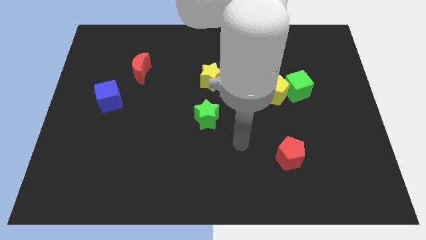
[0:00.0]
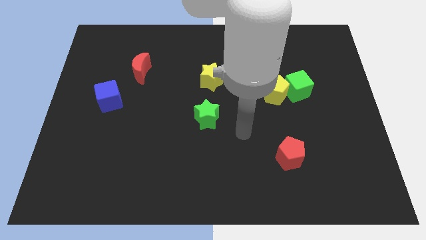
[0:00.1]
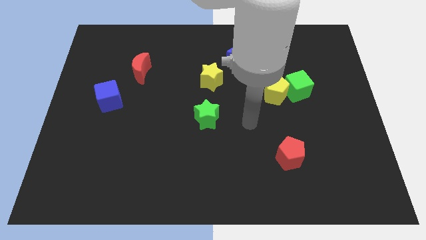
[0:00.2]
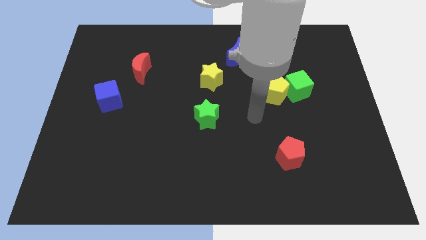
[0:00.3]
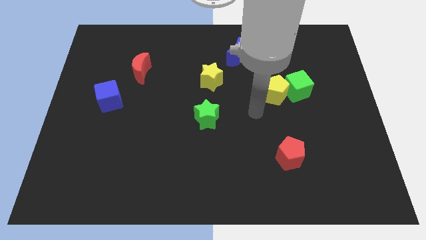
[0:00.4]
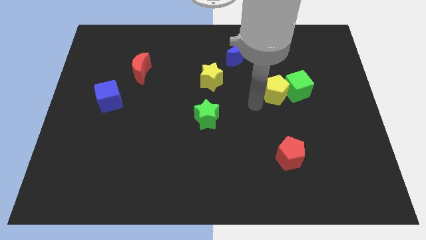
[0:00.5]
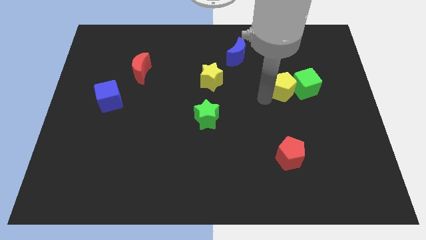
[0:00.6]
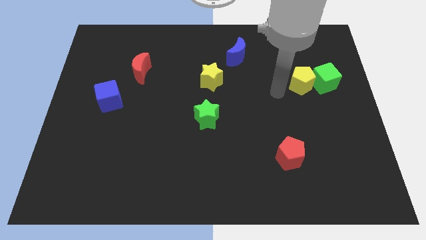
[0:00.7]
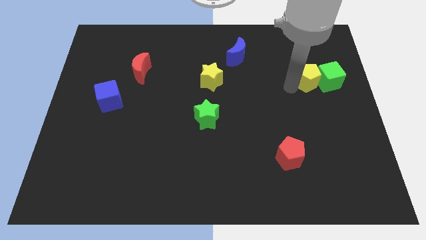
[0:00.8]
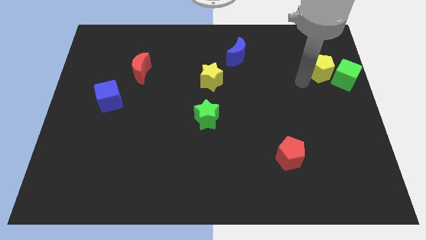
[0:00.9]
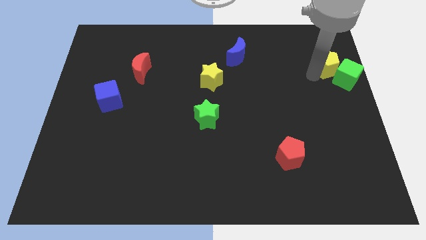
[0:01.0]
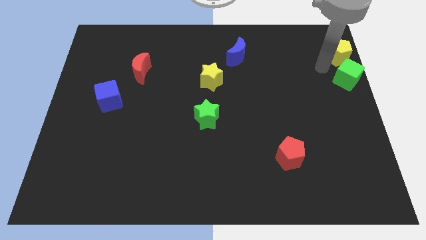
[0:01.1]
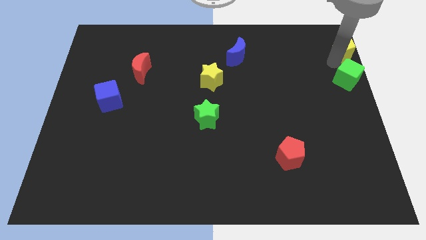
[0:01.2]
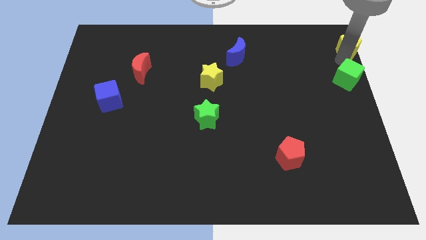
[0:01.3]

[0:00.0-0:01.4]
move the green cube away from the yellow pentagon

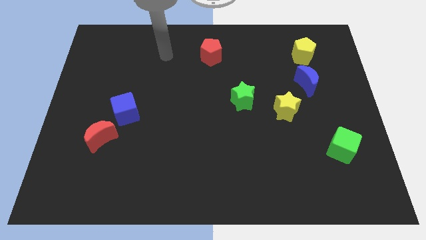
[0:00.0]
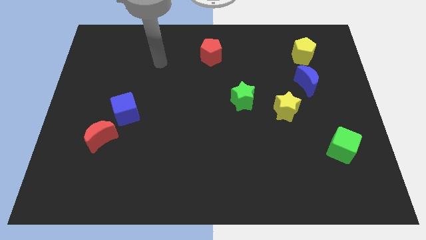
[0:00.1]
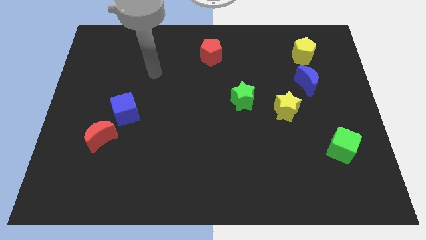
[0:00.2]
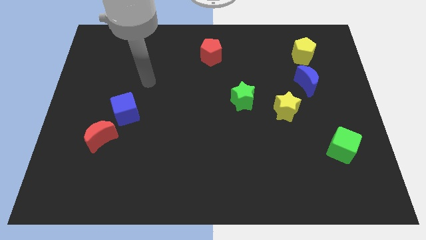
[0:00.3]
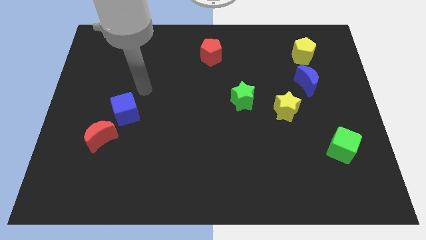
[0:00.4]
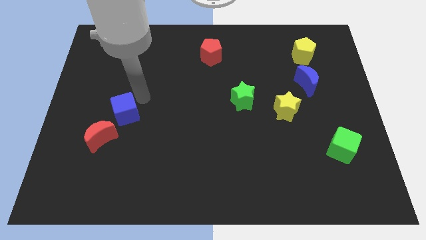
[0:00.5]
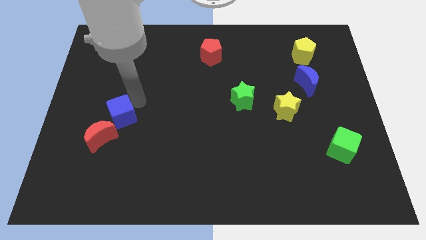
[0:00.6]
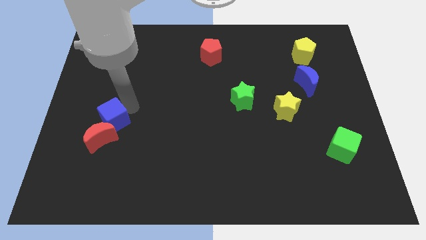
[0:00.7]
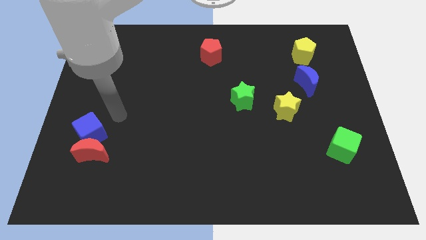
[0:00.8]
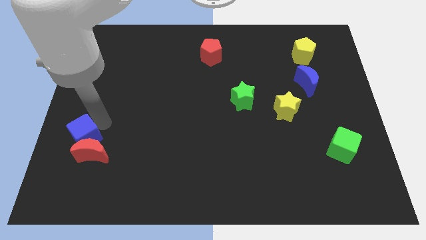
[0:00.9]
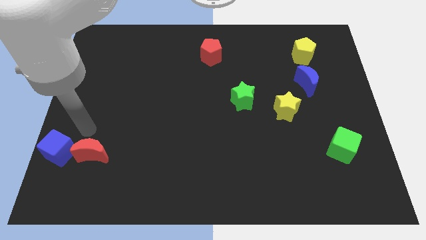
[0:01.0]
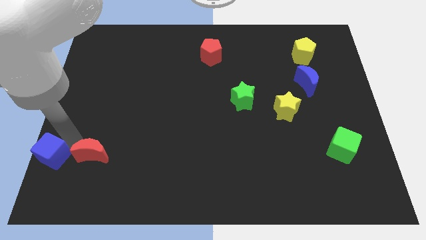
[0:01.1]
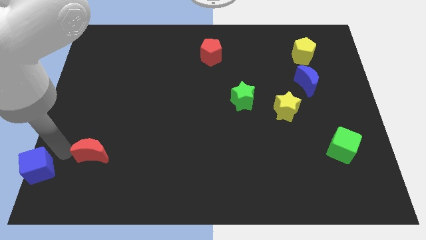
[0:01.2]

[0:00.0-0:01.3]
pull the red moon apart from the blue cube

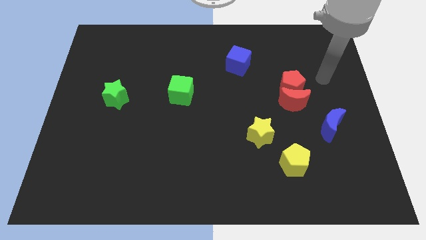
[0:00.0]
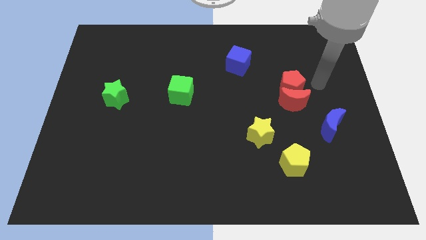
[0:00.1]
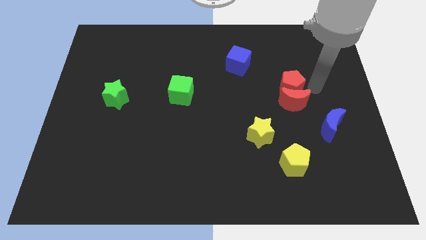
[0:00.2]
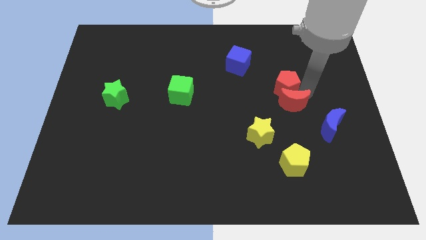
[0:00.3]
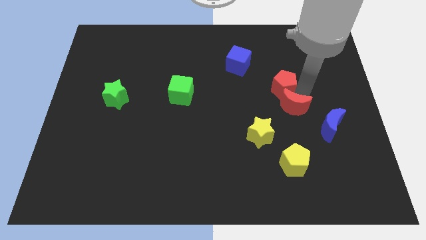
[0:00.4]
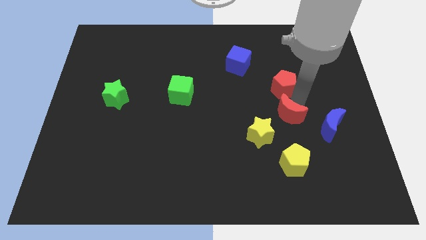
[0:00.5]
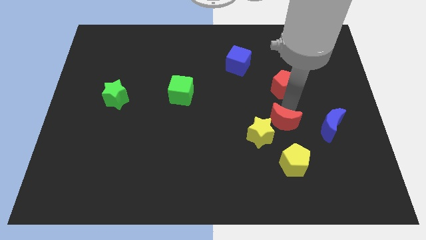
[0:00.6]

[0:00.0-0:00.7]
separate the red pentagon from the red moon

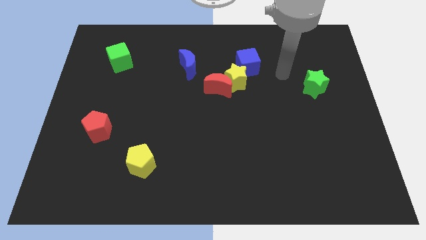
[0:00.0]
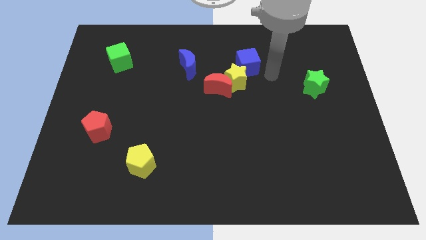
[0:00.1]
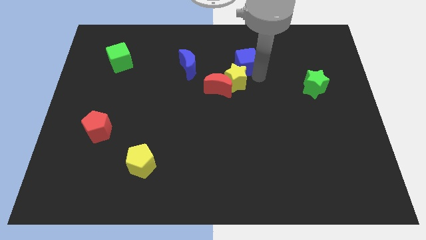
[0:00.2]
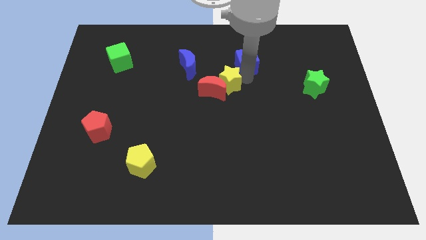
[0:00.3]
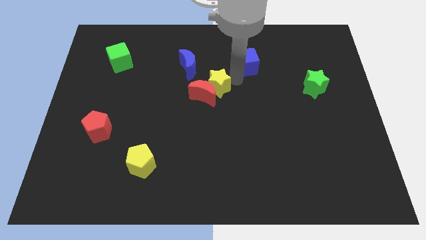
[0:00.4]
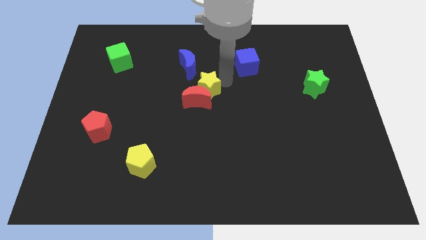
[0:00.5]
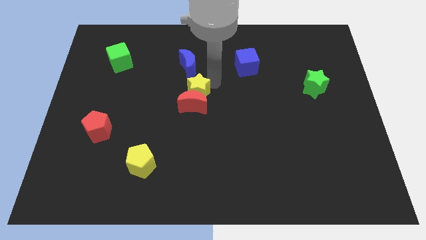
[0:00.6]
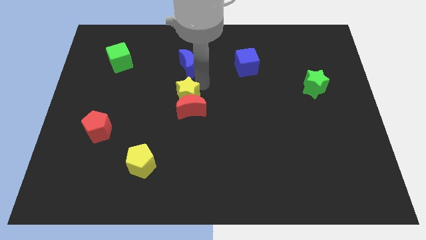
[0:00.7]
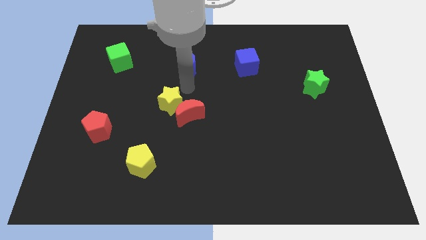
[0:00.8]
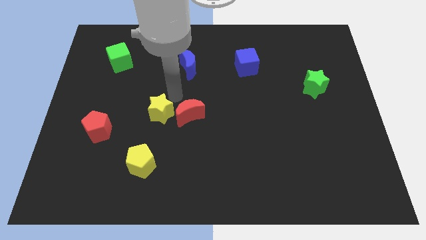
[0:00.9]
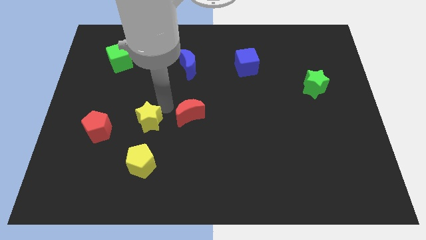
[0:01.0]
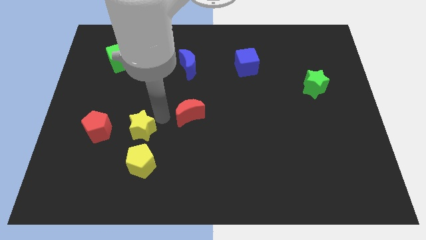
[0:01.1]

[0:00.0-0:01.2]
move the red moon away from the yellow star

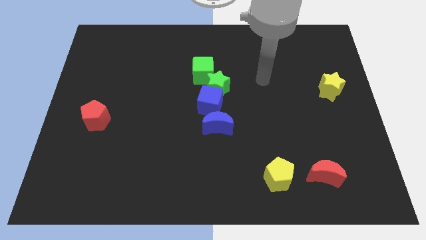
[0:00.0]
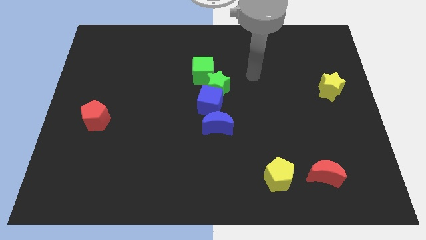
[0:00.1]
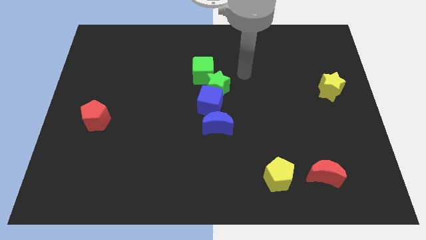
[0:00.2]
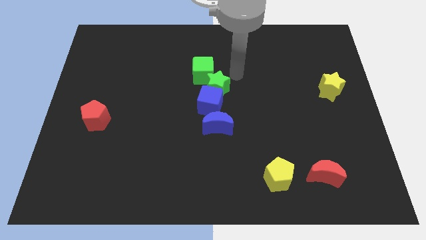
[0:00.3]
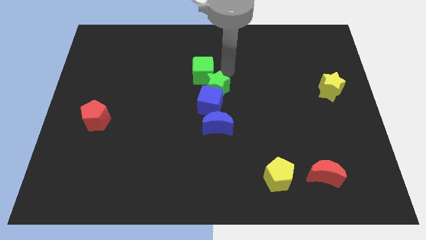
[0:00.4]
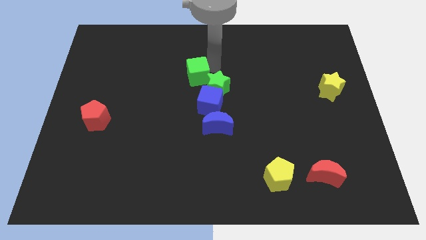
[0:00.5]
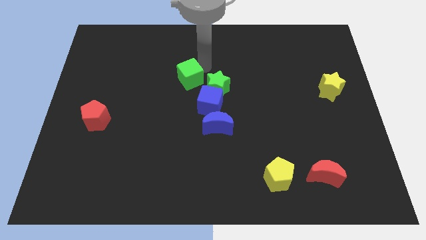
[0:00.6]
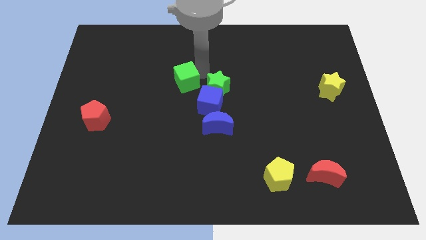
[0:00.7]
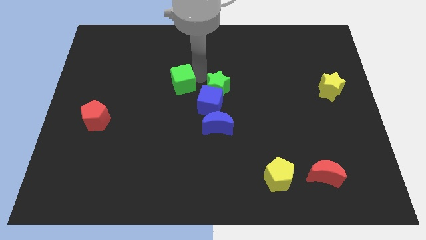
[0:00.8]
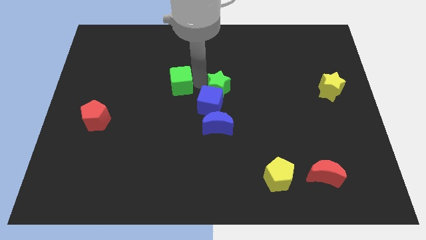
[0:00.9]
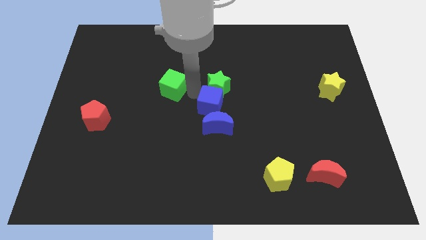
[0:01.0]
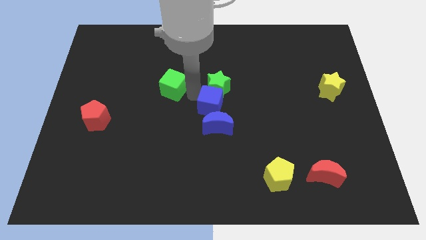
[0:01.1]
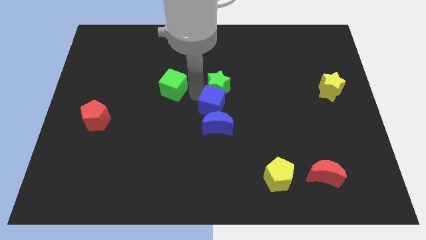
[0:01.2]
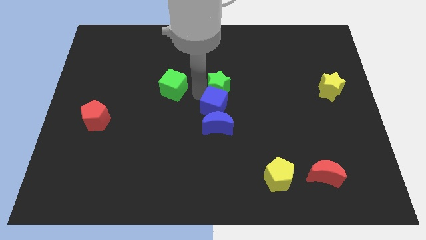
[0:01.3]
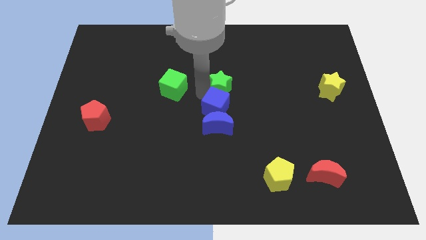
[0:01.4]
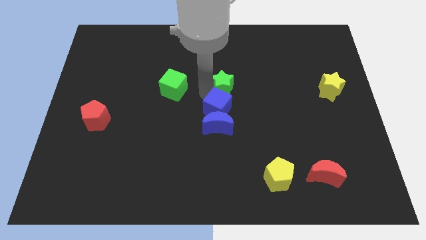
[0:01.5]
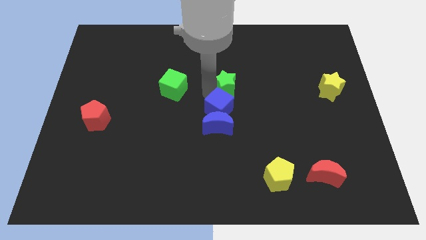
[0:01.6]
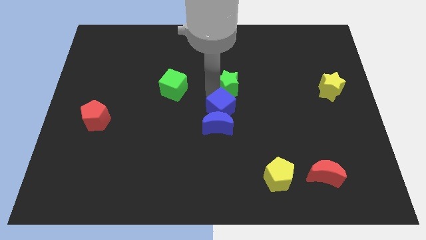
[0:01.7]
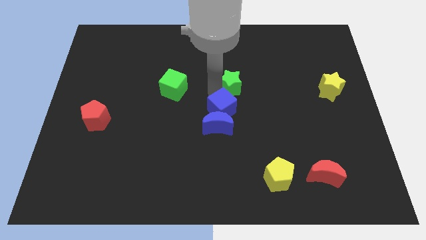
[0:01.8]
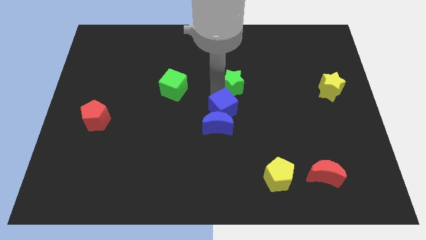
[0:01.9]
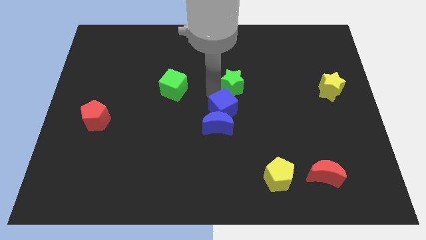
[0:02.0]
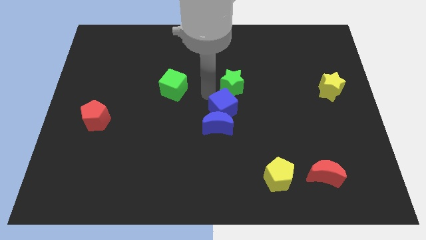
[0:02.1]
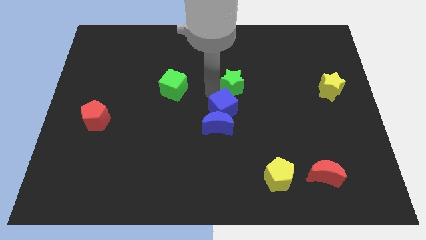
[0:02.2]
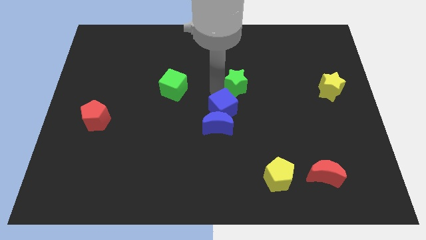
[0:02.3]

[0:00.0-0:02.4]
move the green star away from the blue cube and green cube

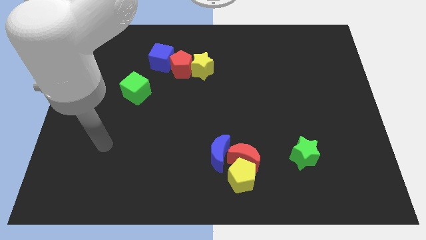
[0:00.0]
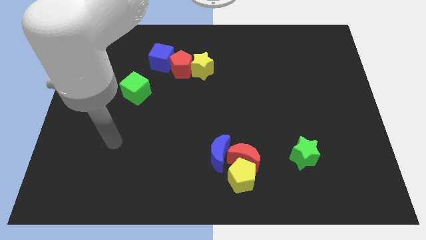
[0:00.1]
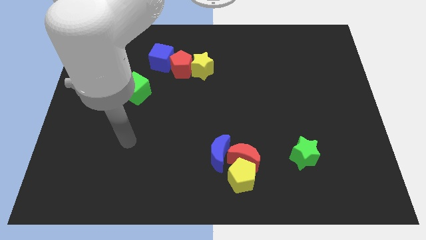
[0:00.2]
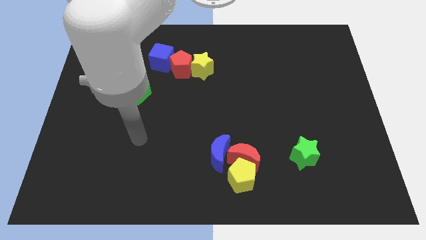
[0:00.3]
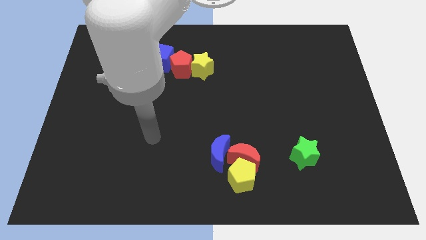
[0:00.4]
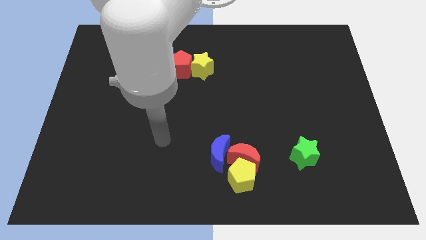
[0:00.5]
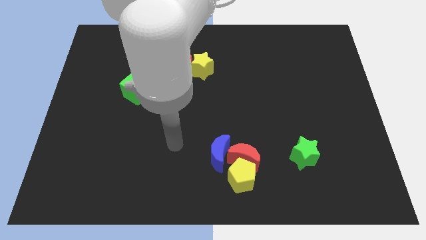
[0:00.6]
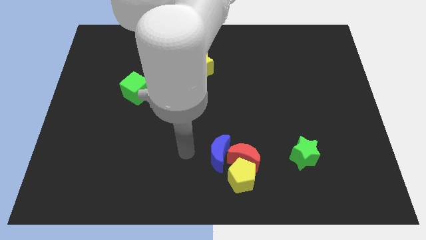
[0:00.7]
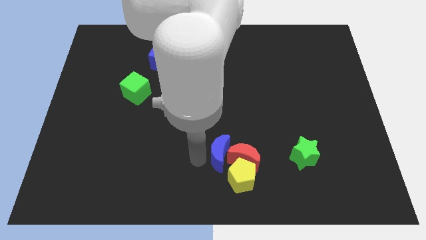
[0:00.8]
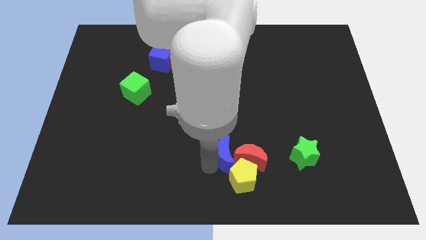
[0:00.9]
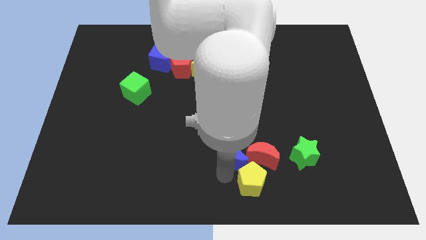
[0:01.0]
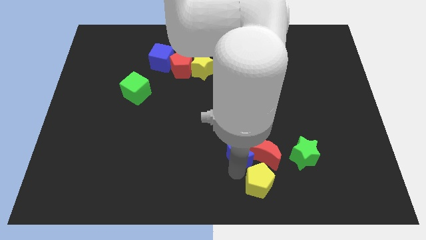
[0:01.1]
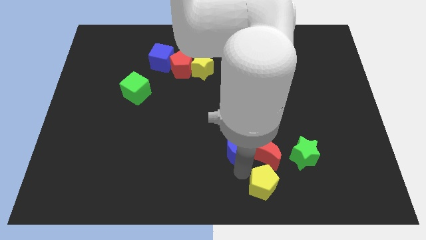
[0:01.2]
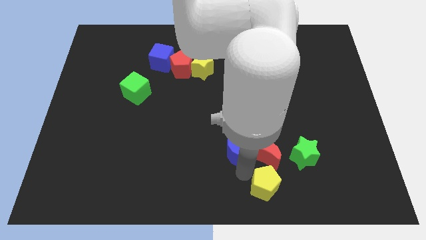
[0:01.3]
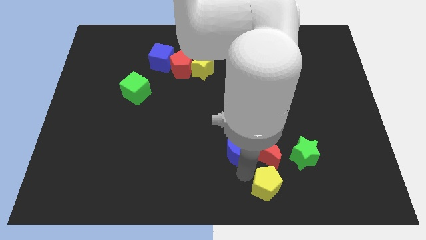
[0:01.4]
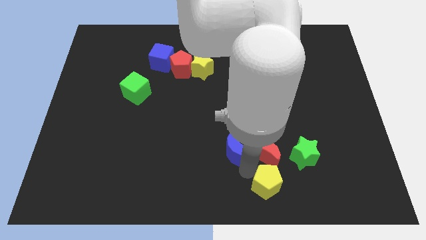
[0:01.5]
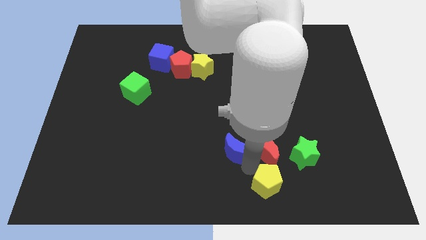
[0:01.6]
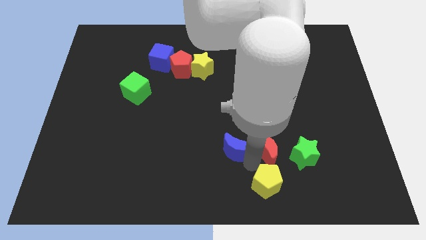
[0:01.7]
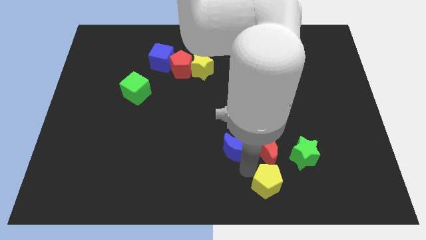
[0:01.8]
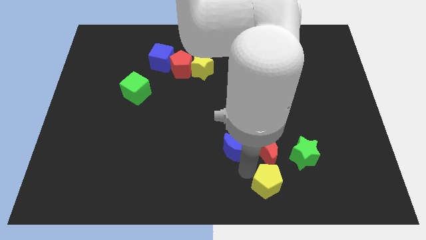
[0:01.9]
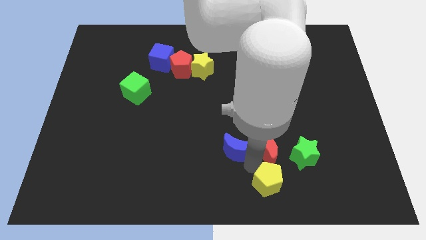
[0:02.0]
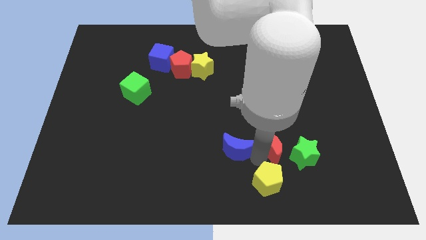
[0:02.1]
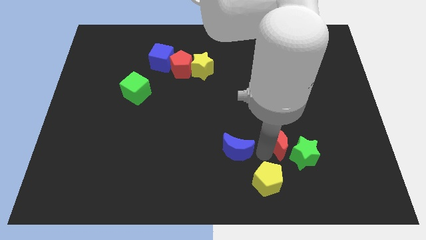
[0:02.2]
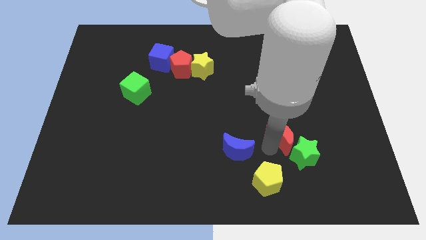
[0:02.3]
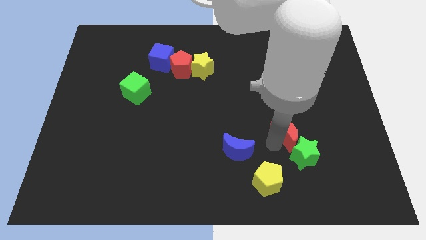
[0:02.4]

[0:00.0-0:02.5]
move the red moon away from the yellow pentagon and blue moon
